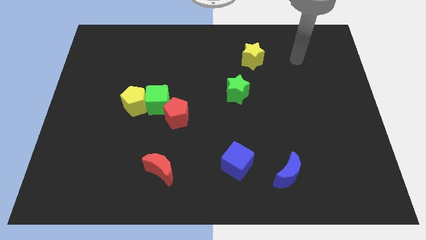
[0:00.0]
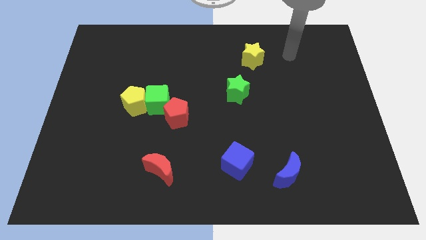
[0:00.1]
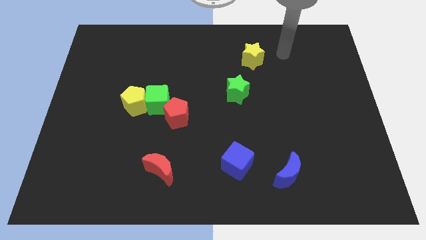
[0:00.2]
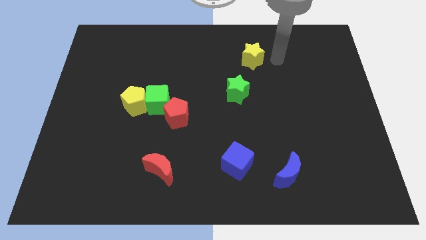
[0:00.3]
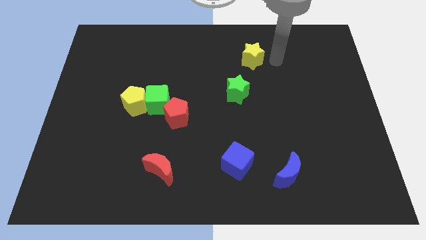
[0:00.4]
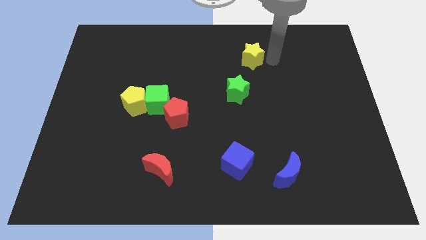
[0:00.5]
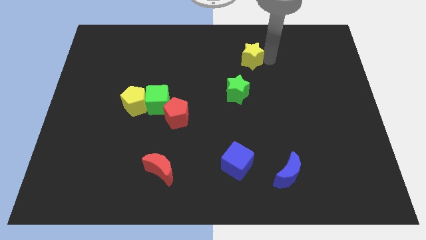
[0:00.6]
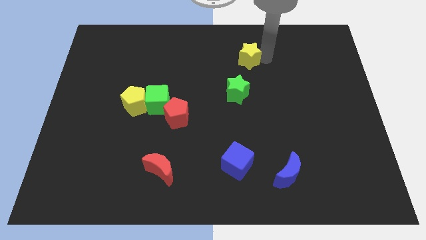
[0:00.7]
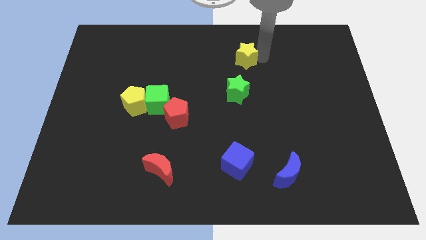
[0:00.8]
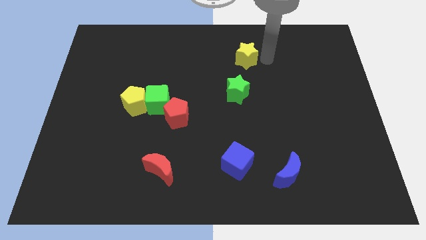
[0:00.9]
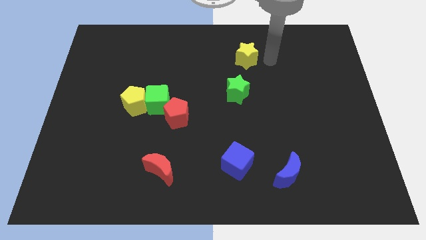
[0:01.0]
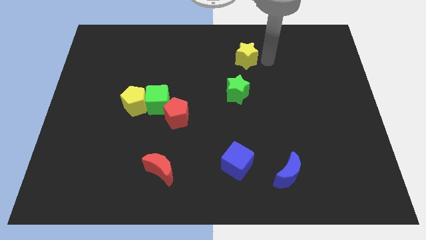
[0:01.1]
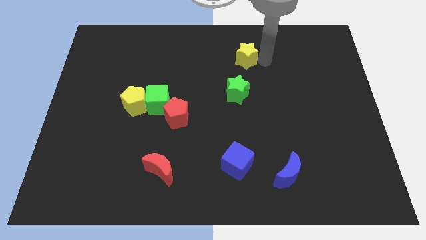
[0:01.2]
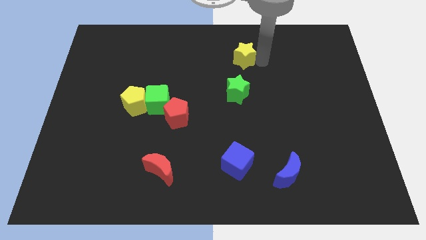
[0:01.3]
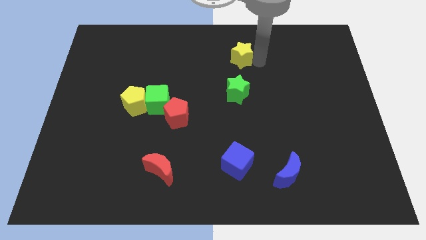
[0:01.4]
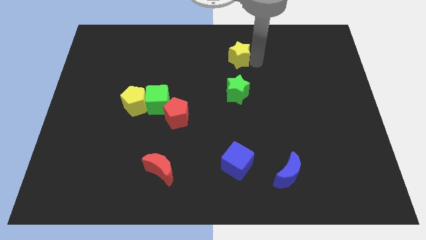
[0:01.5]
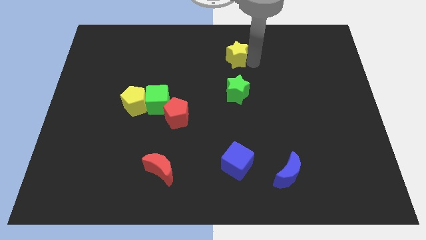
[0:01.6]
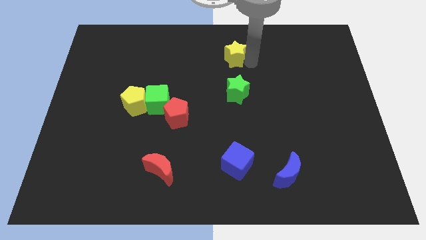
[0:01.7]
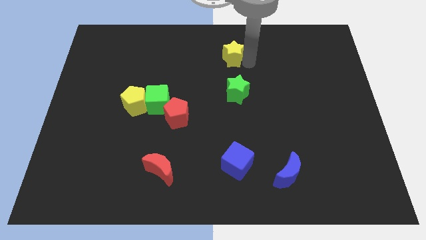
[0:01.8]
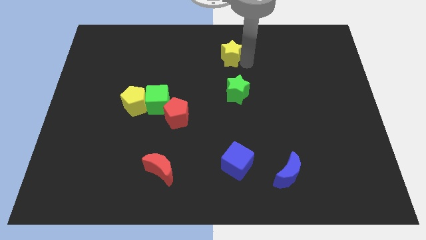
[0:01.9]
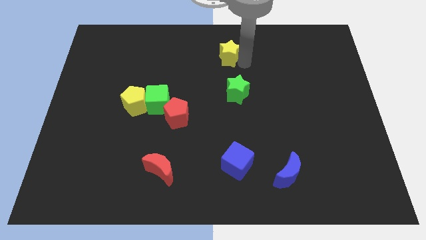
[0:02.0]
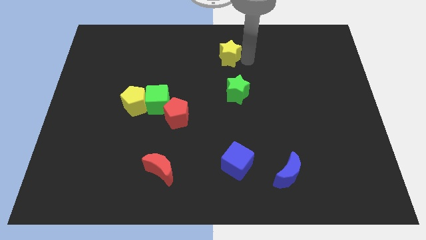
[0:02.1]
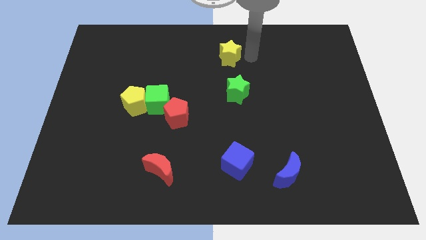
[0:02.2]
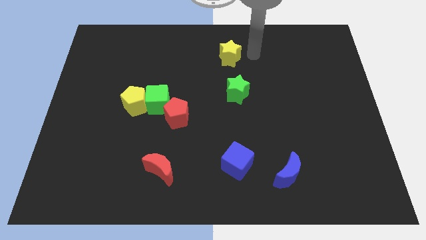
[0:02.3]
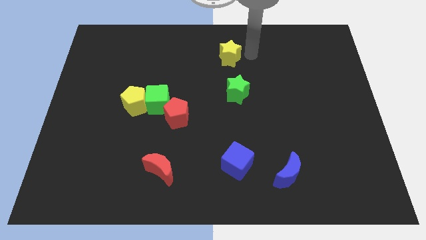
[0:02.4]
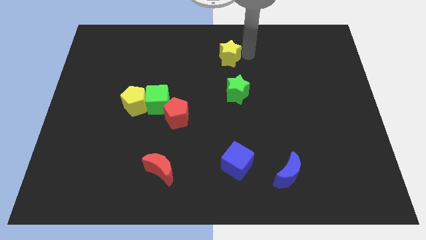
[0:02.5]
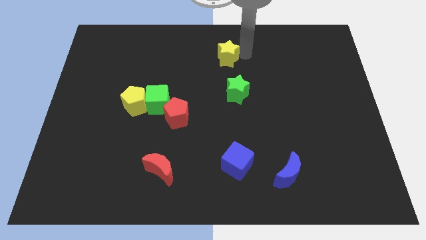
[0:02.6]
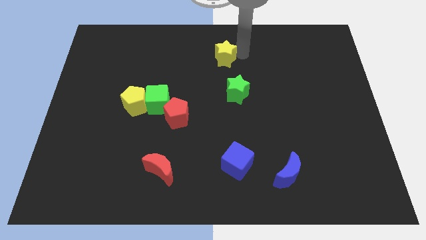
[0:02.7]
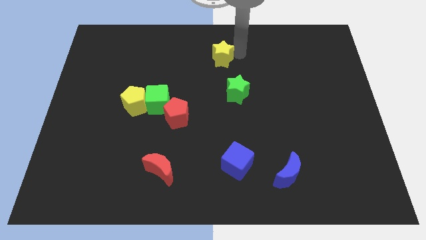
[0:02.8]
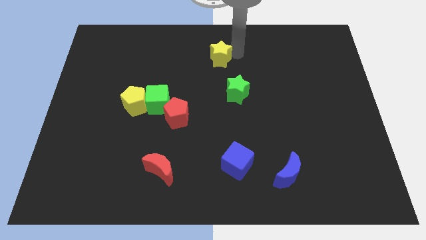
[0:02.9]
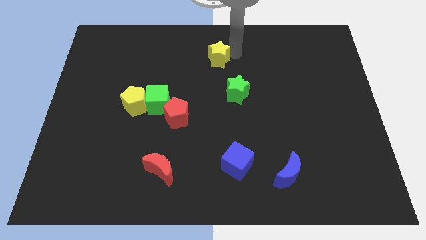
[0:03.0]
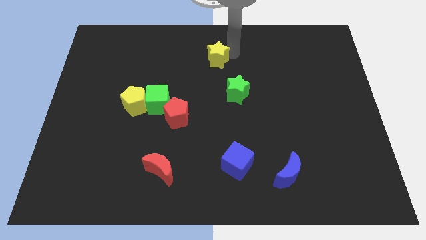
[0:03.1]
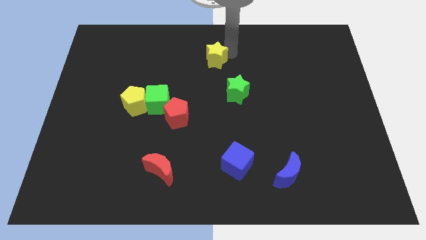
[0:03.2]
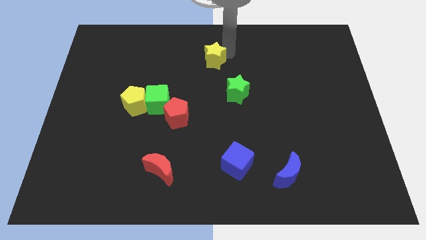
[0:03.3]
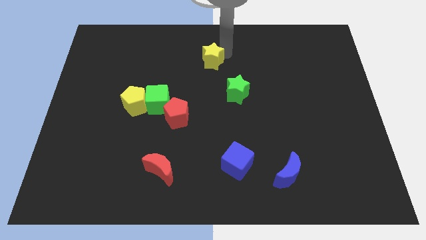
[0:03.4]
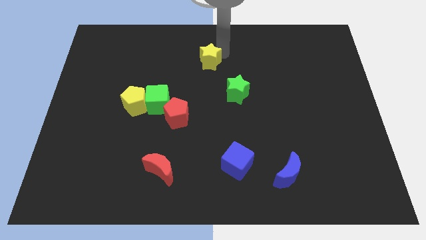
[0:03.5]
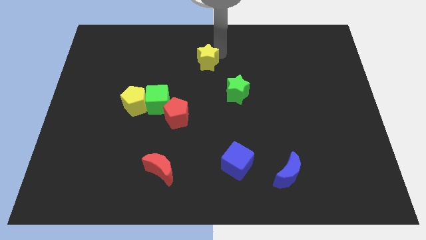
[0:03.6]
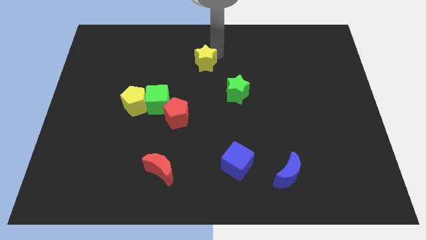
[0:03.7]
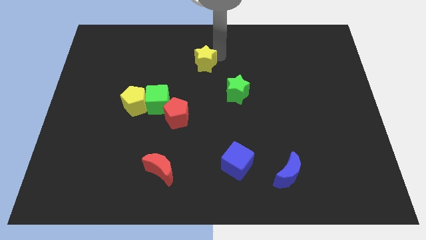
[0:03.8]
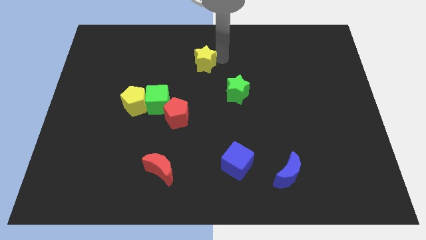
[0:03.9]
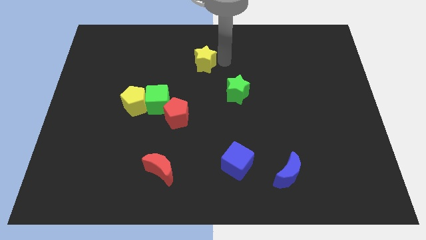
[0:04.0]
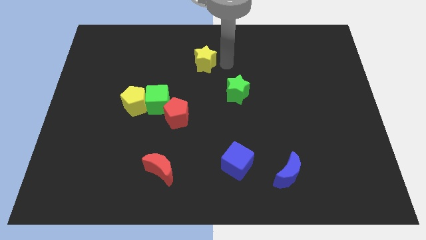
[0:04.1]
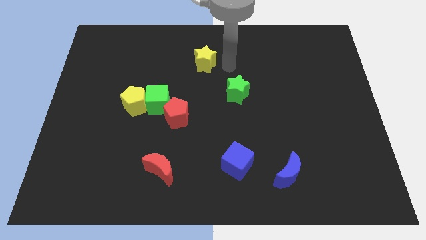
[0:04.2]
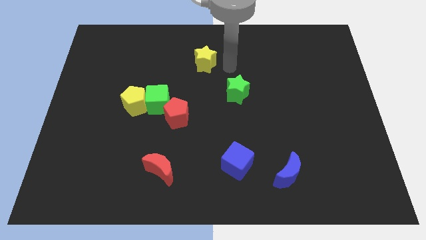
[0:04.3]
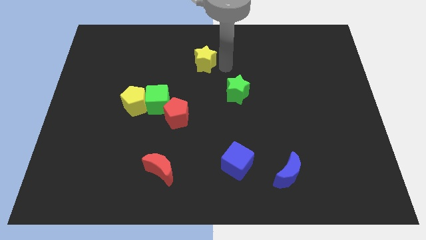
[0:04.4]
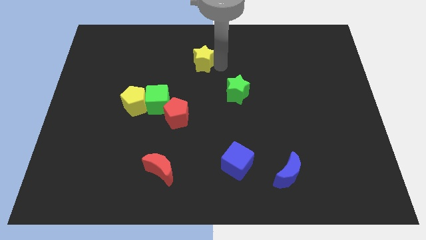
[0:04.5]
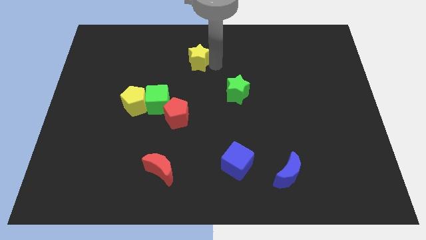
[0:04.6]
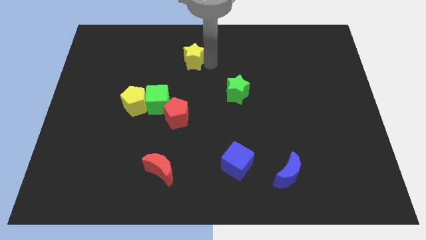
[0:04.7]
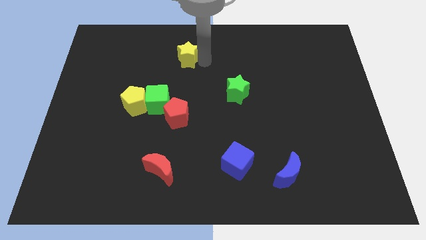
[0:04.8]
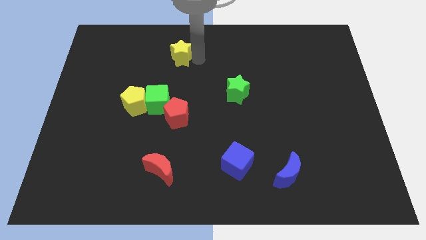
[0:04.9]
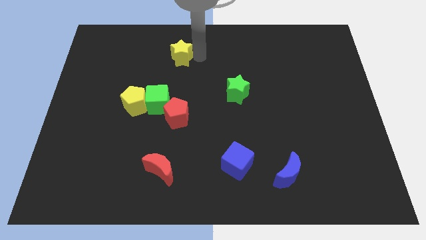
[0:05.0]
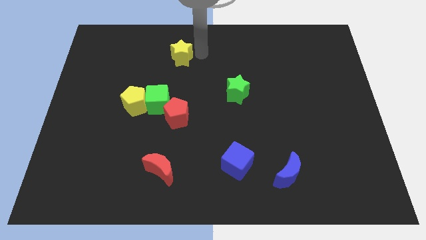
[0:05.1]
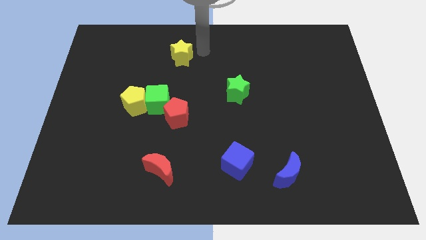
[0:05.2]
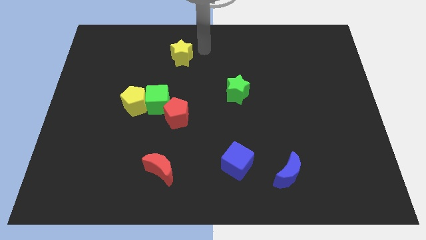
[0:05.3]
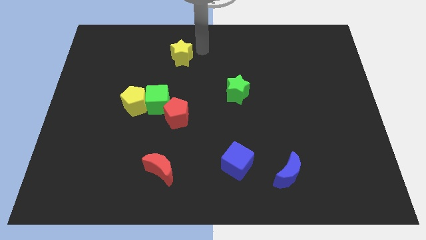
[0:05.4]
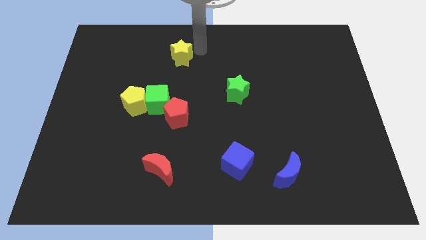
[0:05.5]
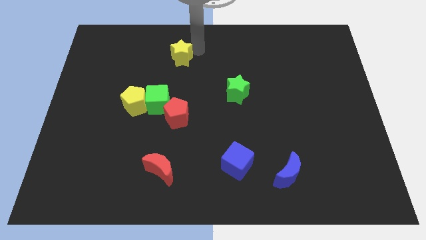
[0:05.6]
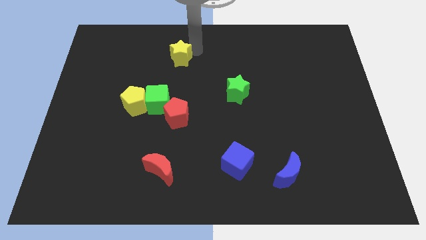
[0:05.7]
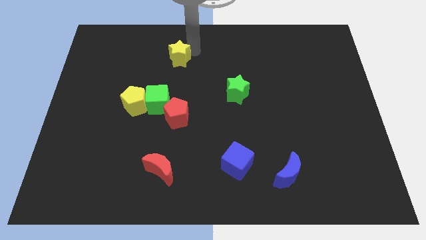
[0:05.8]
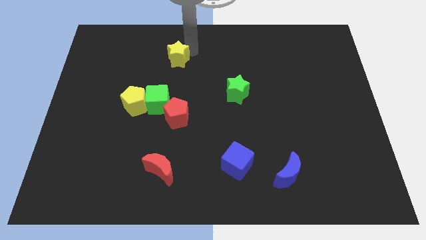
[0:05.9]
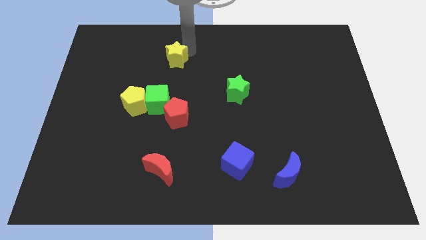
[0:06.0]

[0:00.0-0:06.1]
slide the yellow star left

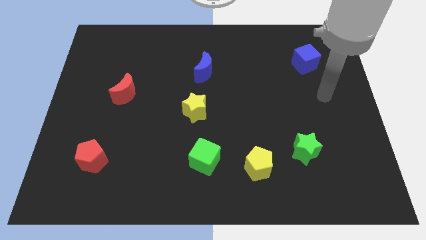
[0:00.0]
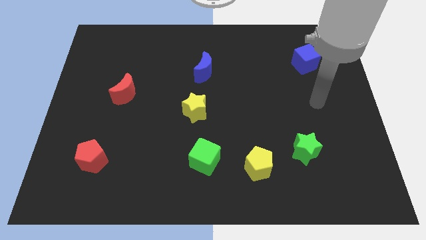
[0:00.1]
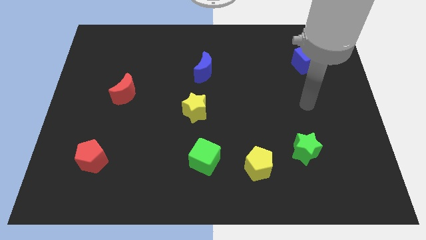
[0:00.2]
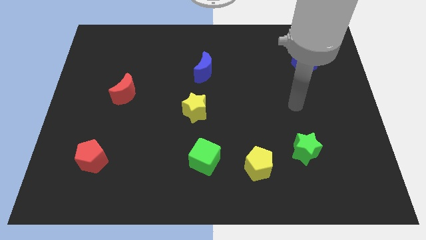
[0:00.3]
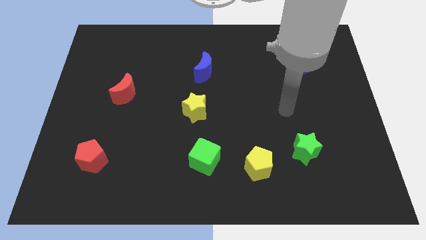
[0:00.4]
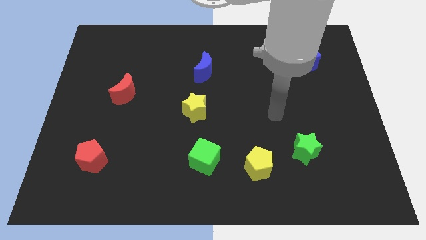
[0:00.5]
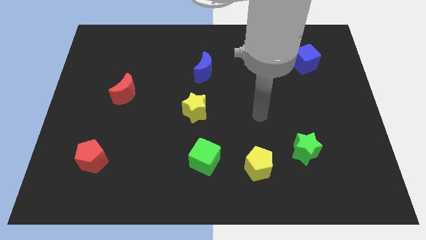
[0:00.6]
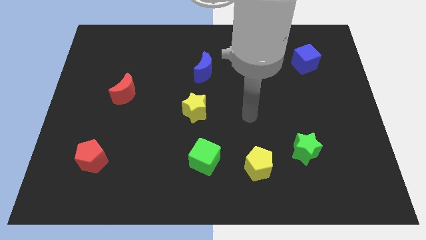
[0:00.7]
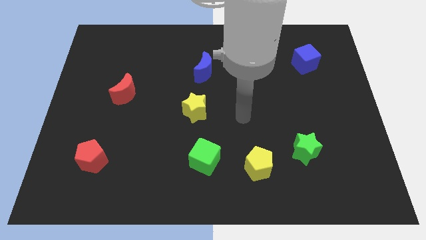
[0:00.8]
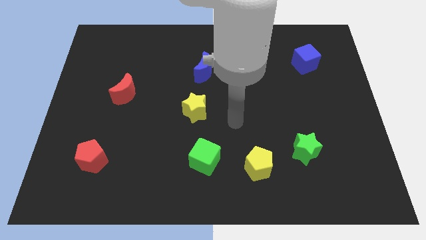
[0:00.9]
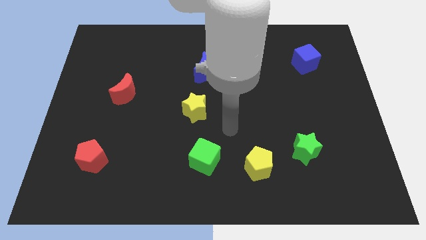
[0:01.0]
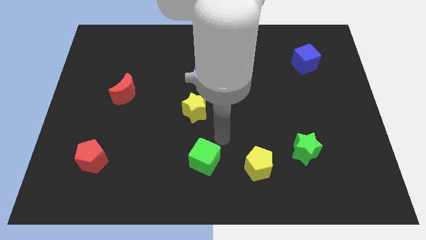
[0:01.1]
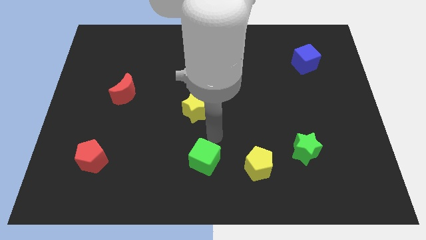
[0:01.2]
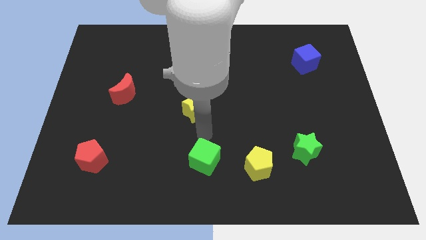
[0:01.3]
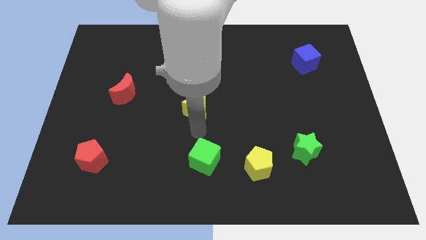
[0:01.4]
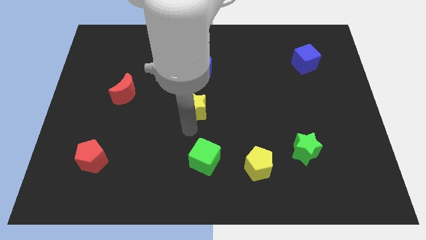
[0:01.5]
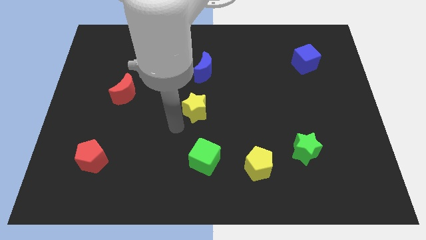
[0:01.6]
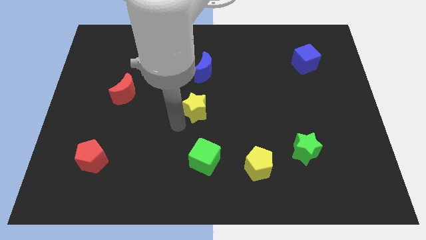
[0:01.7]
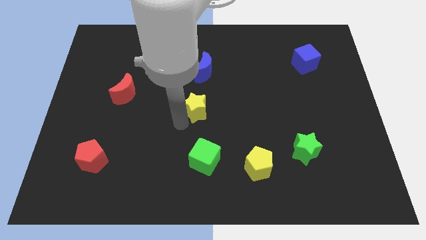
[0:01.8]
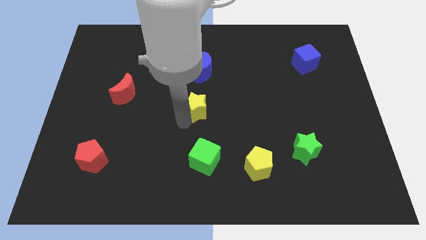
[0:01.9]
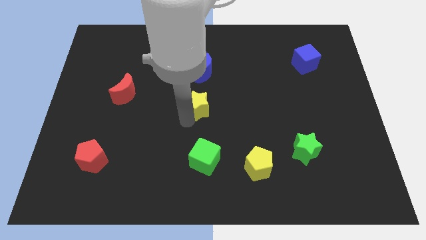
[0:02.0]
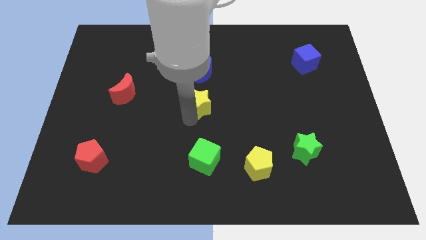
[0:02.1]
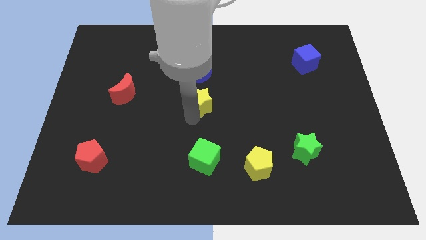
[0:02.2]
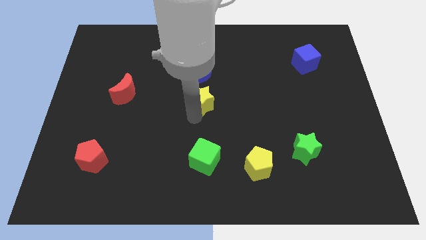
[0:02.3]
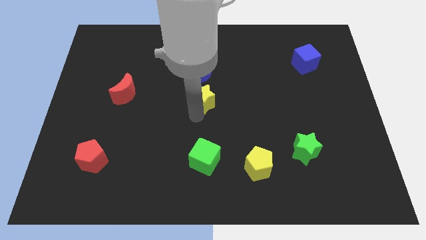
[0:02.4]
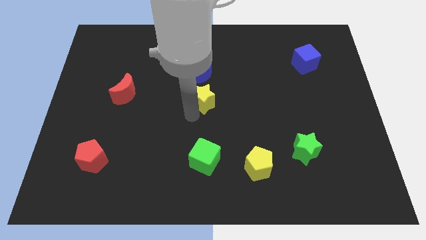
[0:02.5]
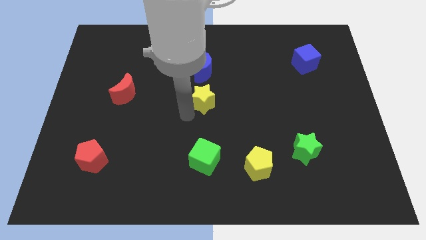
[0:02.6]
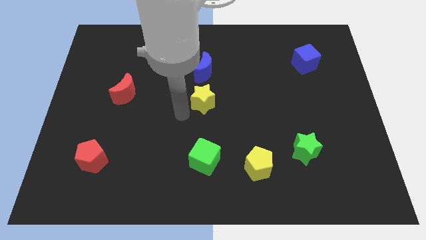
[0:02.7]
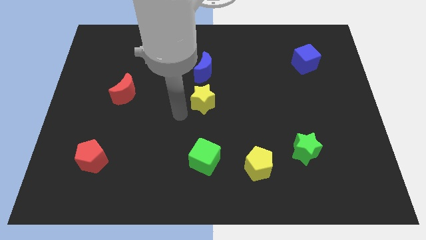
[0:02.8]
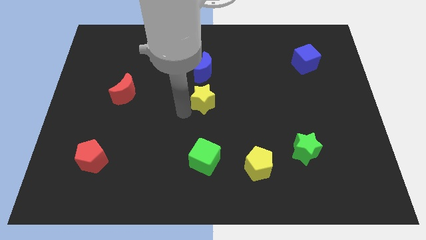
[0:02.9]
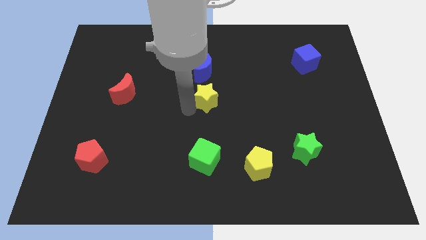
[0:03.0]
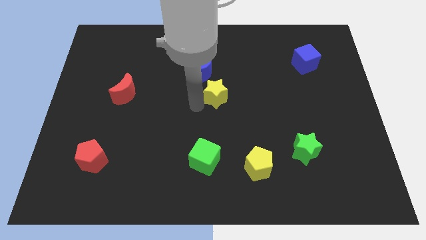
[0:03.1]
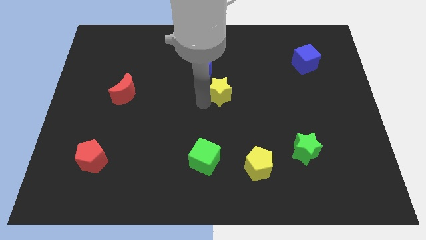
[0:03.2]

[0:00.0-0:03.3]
push the yellow star a little upwards and then right
